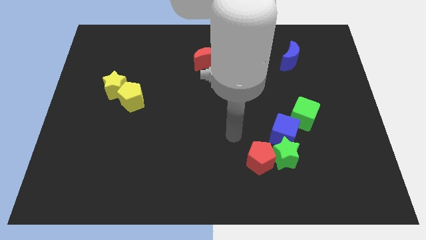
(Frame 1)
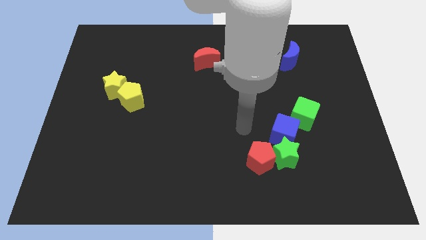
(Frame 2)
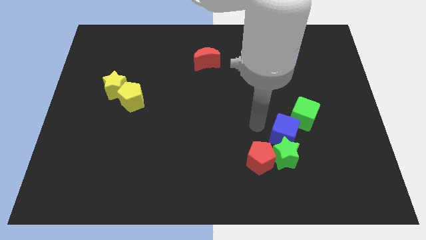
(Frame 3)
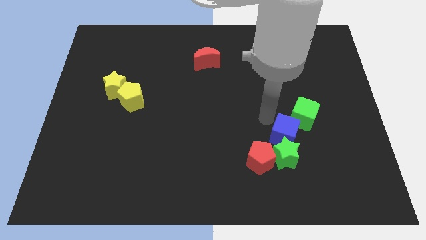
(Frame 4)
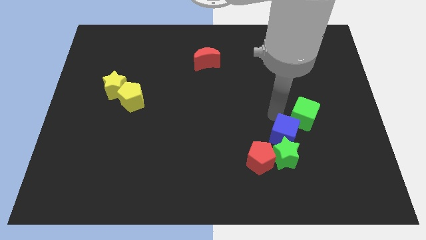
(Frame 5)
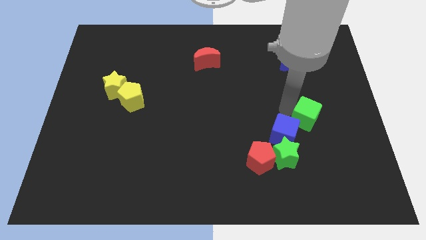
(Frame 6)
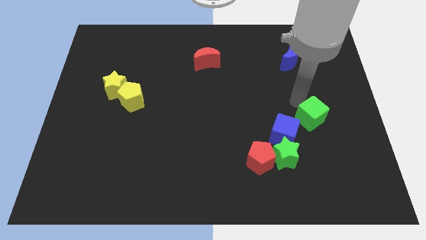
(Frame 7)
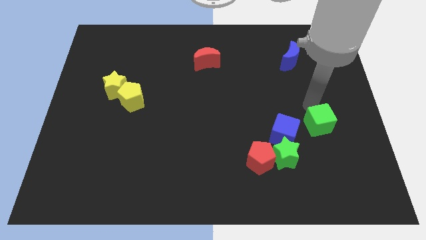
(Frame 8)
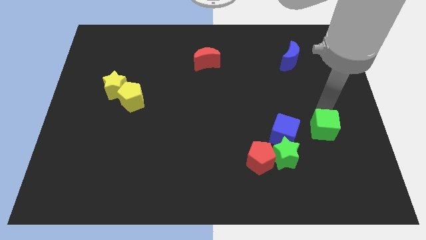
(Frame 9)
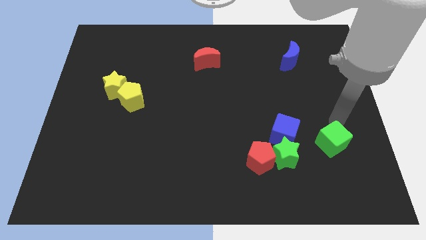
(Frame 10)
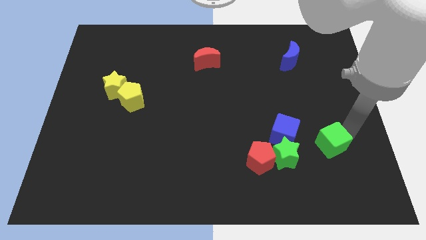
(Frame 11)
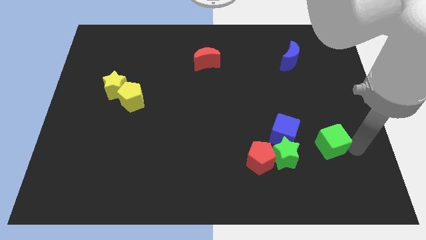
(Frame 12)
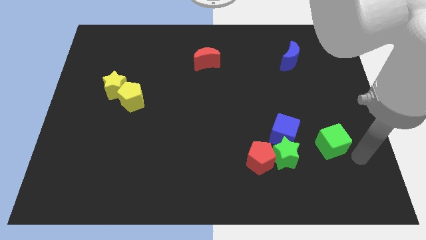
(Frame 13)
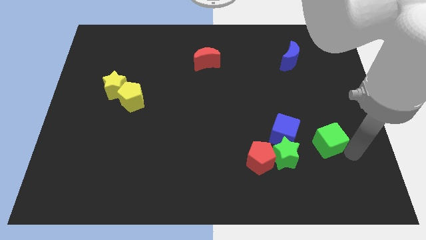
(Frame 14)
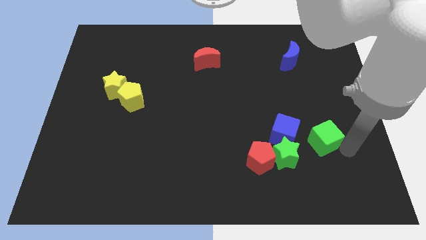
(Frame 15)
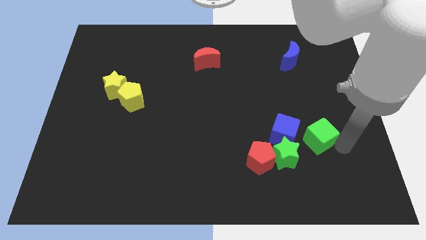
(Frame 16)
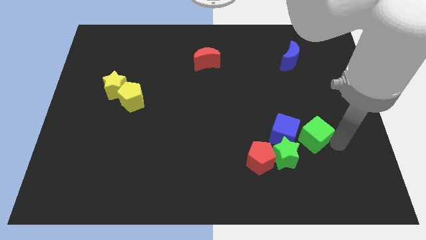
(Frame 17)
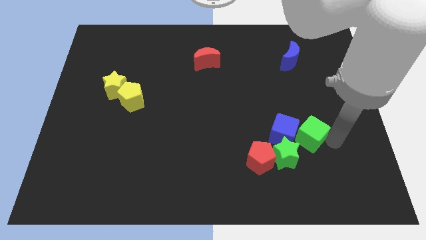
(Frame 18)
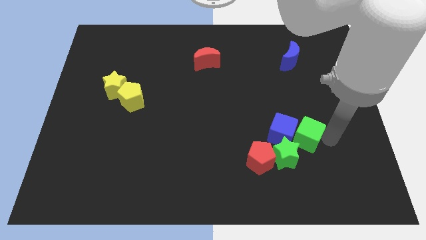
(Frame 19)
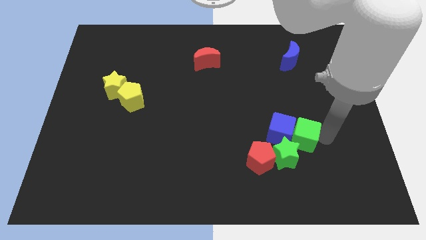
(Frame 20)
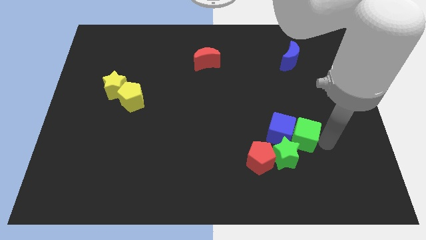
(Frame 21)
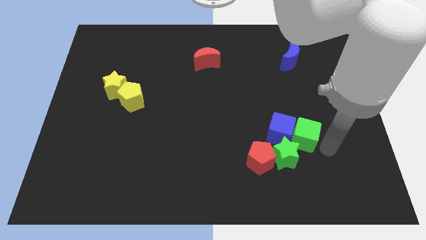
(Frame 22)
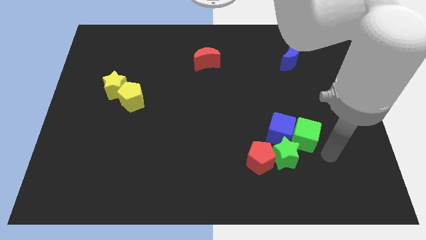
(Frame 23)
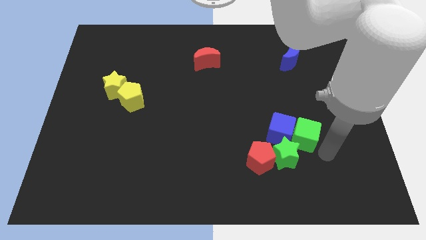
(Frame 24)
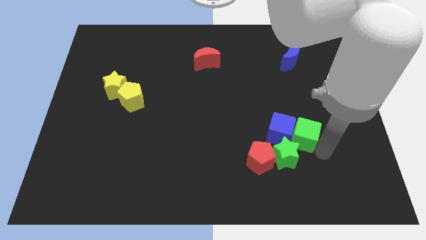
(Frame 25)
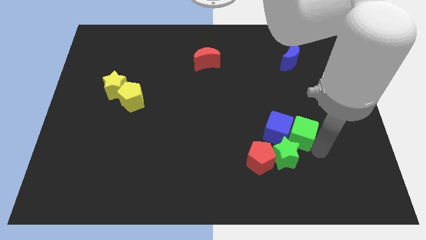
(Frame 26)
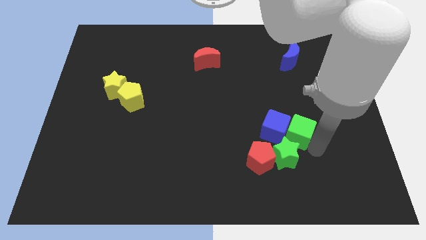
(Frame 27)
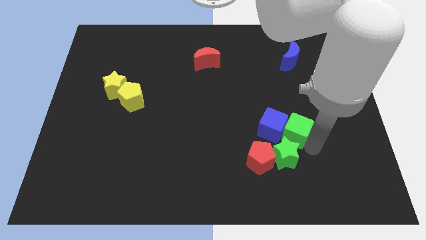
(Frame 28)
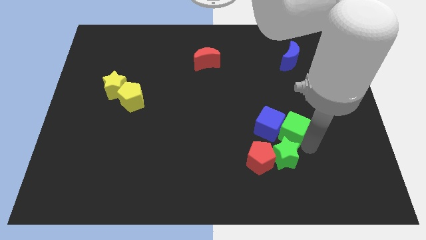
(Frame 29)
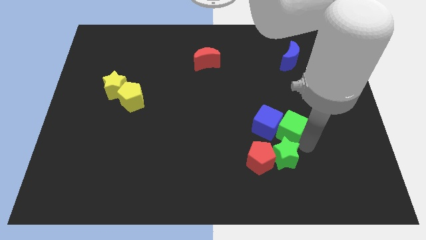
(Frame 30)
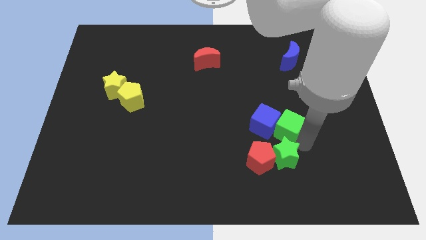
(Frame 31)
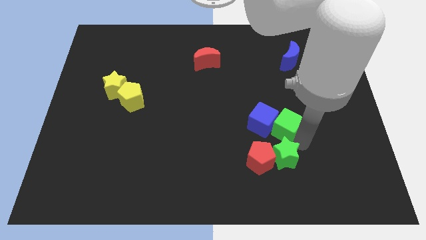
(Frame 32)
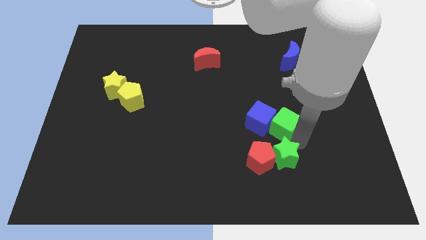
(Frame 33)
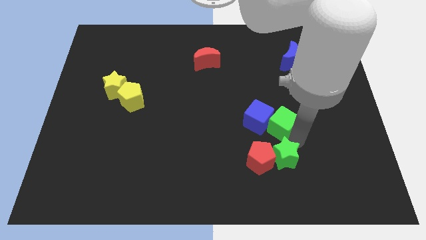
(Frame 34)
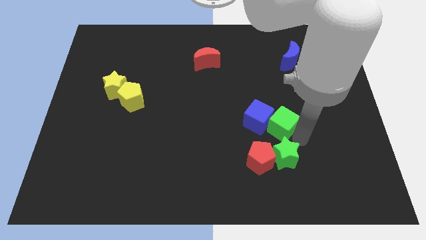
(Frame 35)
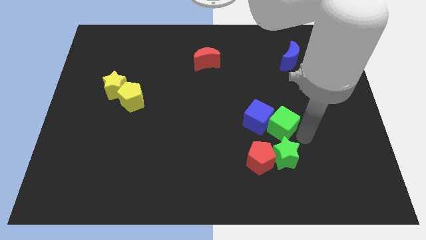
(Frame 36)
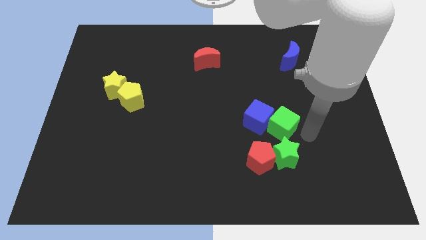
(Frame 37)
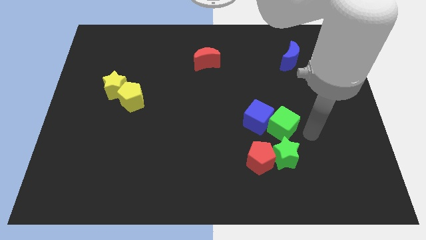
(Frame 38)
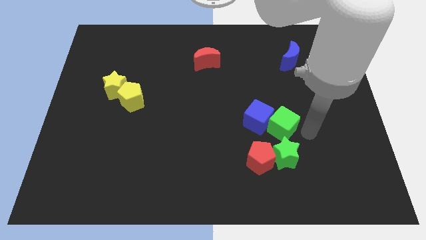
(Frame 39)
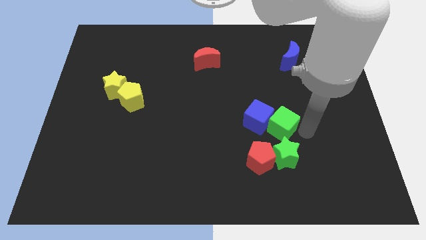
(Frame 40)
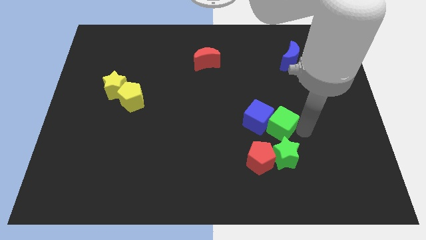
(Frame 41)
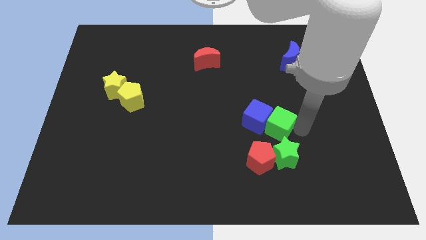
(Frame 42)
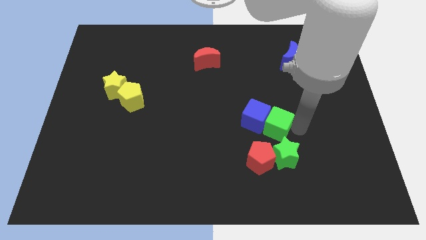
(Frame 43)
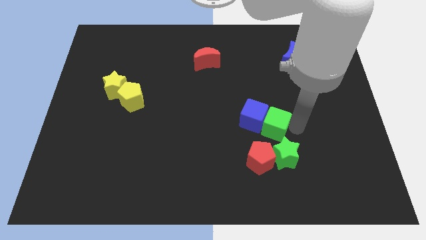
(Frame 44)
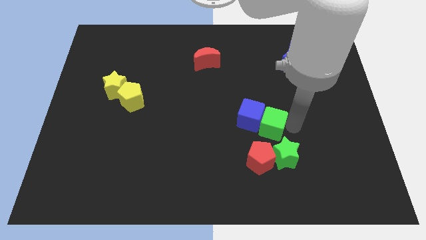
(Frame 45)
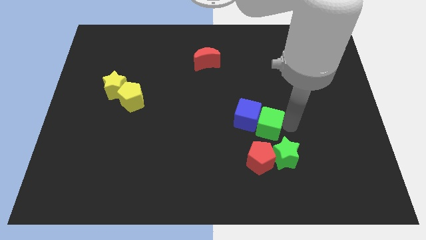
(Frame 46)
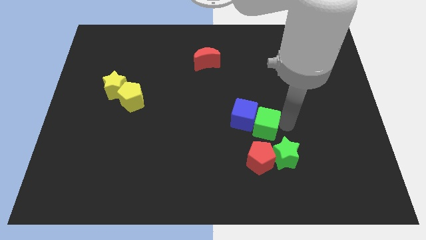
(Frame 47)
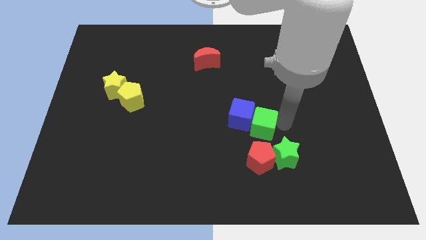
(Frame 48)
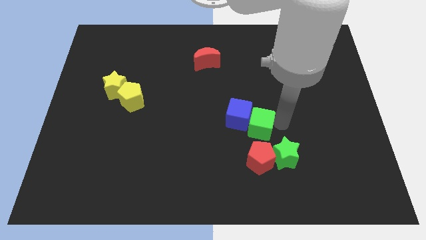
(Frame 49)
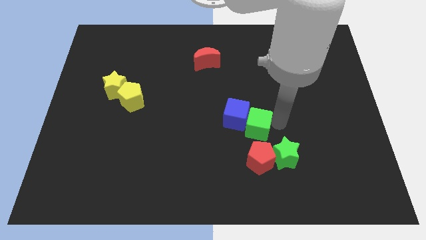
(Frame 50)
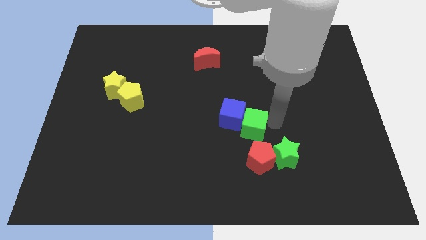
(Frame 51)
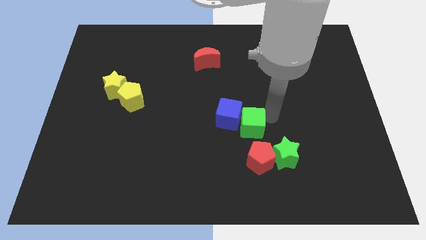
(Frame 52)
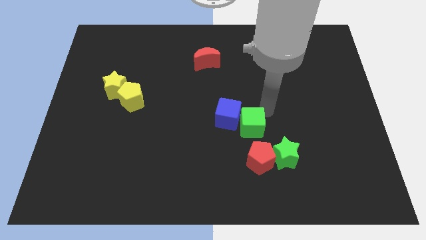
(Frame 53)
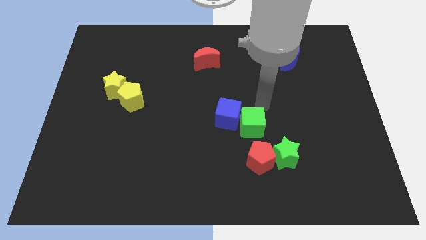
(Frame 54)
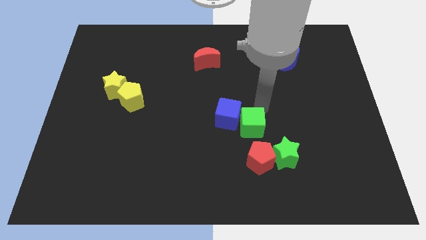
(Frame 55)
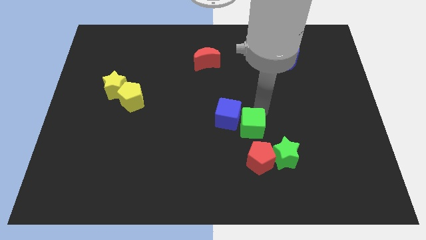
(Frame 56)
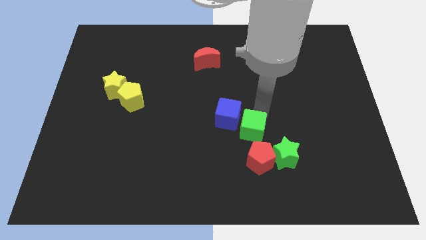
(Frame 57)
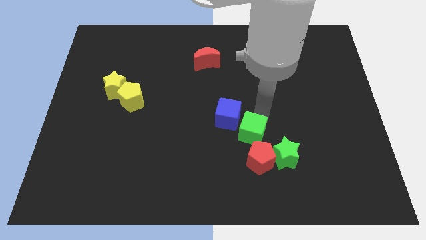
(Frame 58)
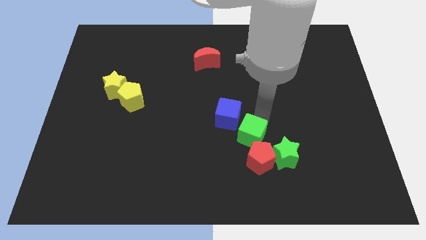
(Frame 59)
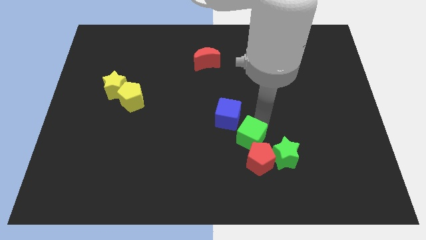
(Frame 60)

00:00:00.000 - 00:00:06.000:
put the green cube left of the green star
